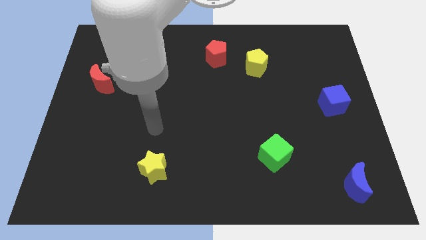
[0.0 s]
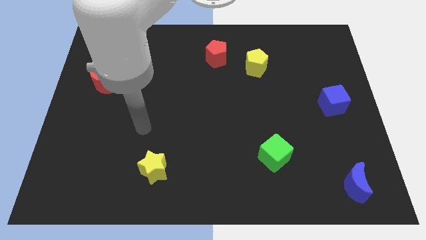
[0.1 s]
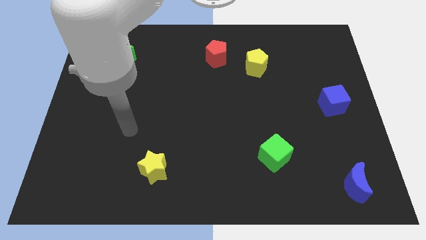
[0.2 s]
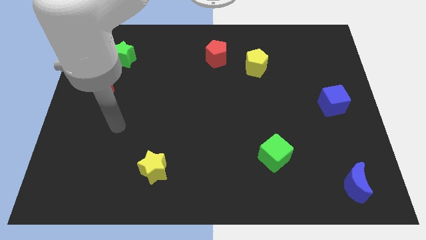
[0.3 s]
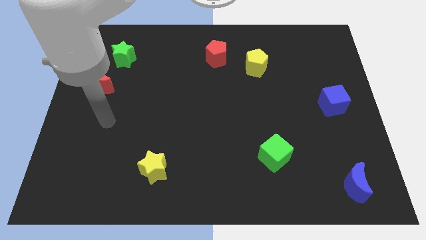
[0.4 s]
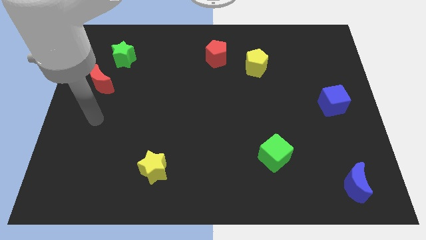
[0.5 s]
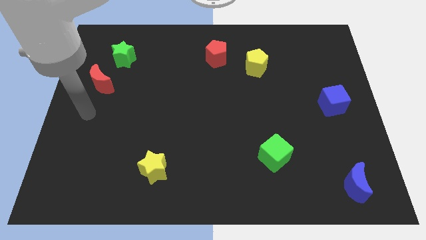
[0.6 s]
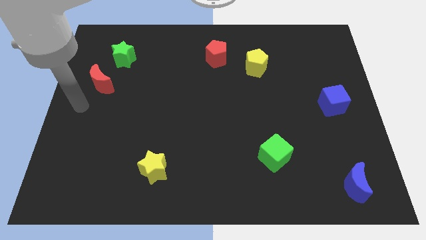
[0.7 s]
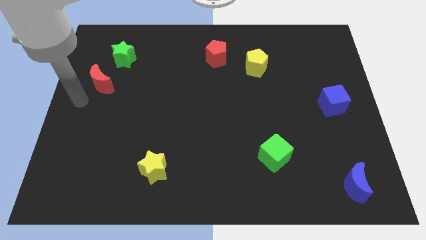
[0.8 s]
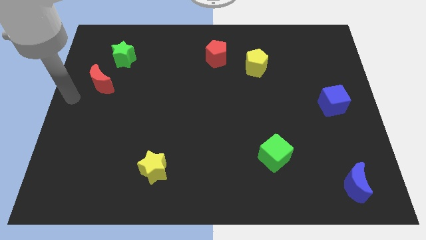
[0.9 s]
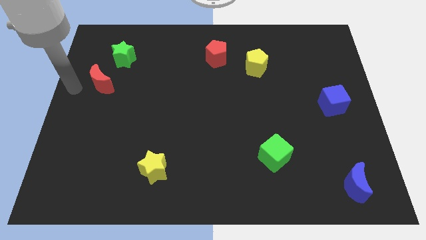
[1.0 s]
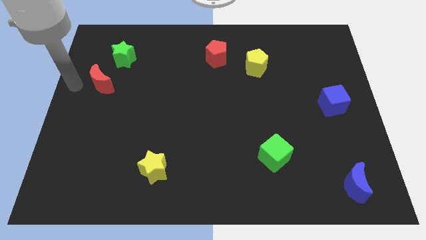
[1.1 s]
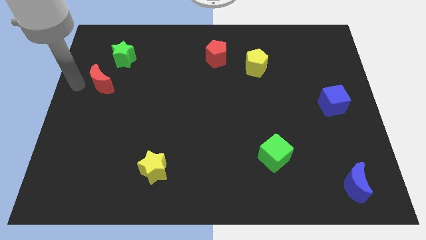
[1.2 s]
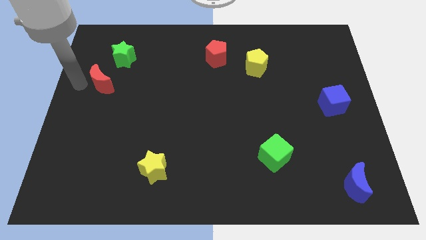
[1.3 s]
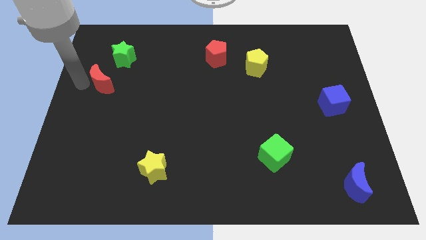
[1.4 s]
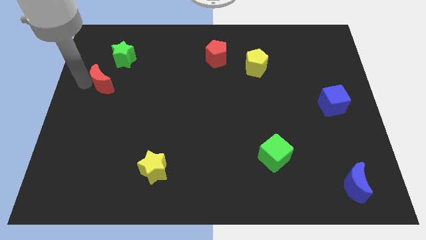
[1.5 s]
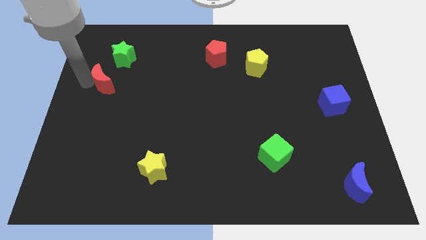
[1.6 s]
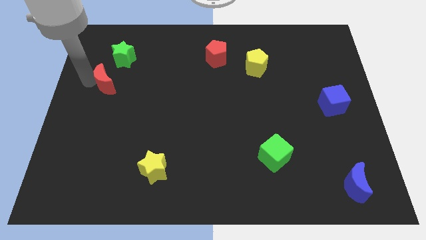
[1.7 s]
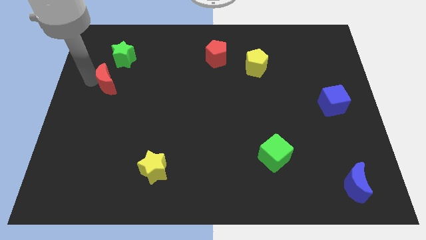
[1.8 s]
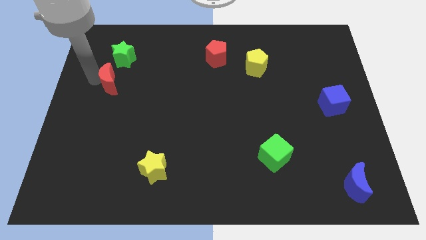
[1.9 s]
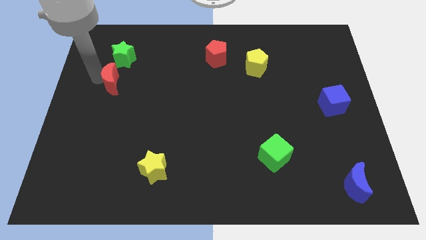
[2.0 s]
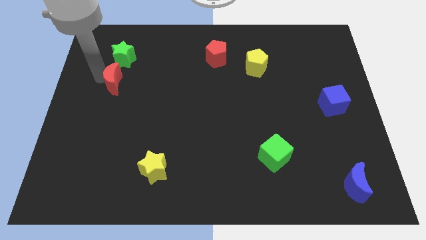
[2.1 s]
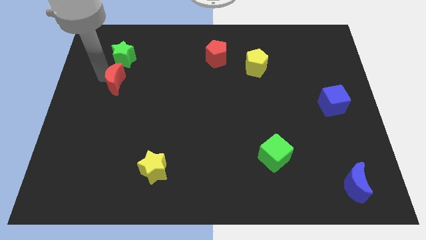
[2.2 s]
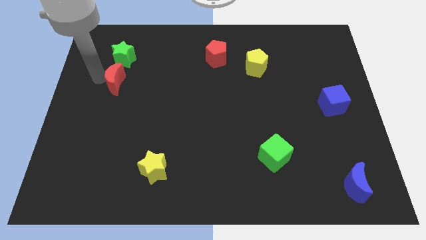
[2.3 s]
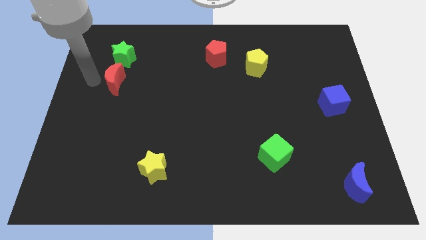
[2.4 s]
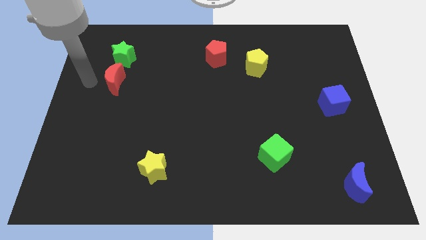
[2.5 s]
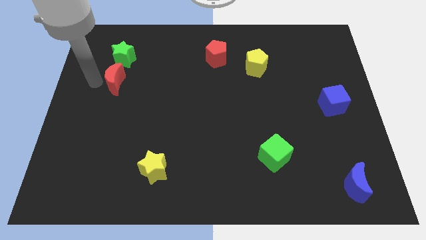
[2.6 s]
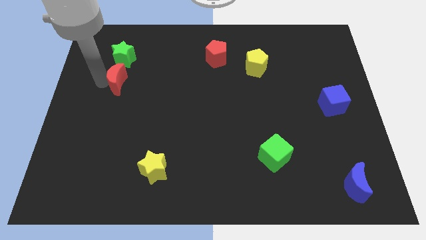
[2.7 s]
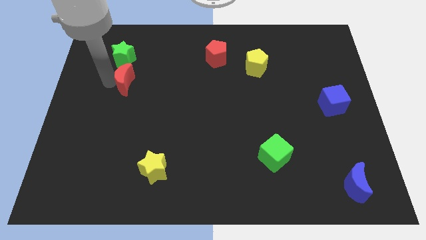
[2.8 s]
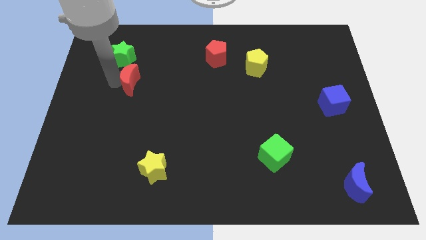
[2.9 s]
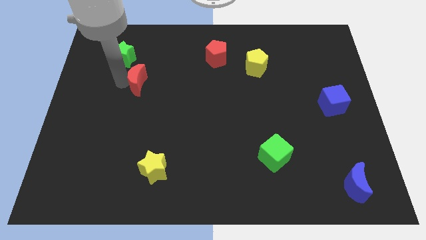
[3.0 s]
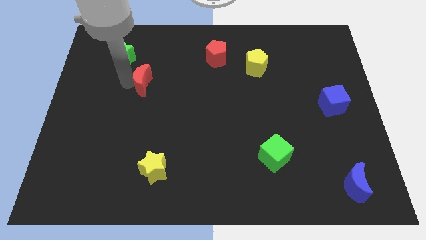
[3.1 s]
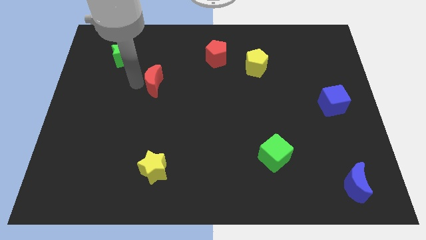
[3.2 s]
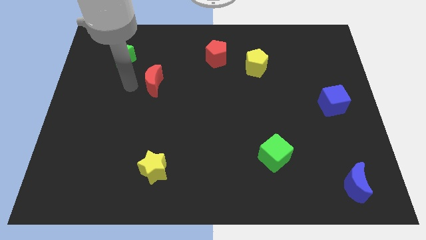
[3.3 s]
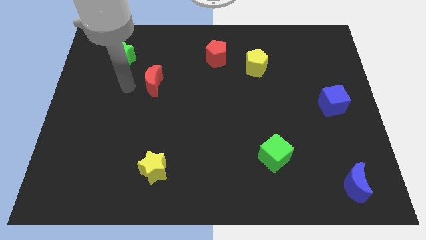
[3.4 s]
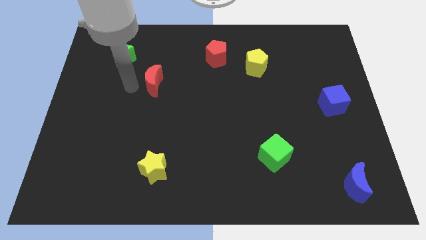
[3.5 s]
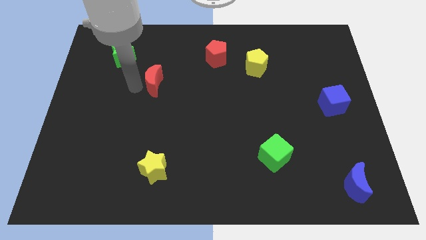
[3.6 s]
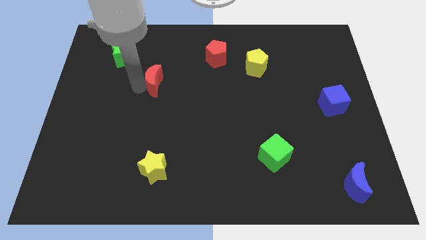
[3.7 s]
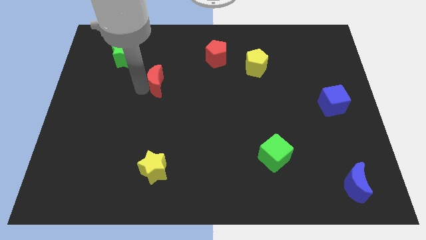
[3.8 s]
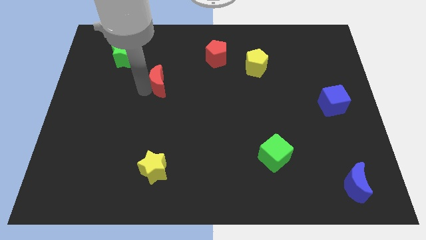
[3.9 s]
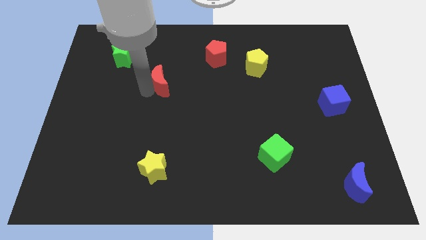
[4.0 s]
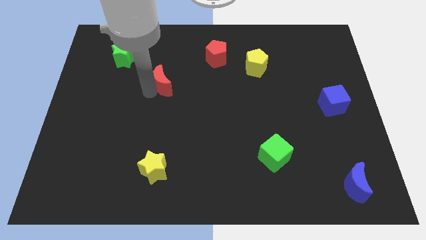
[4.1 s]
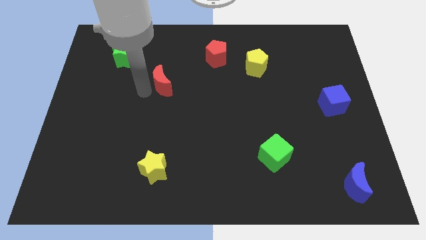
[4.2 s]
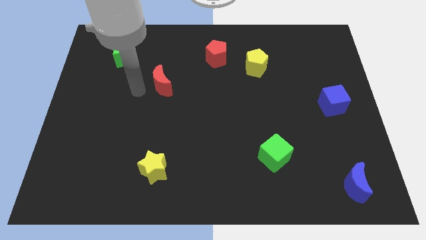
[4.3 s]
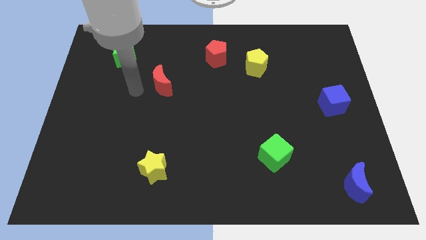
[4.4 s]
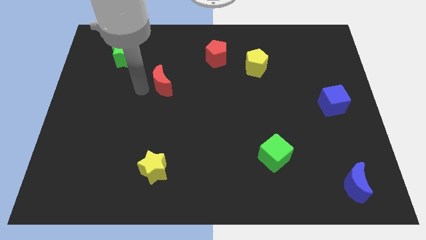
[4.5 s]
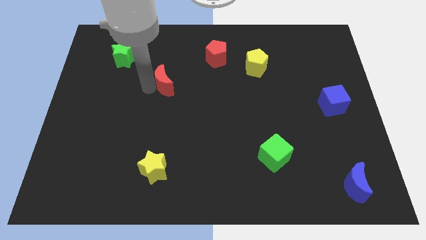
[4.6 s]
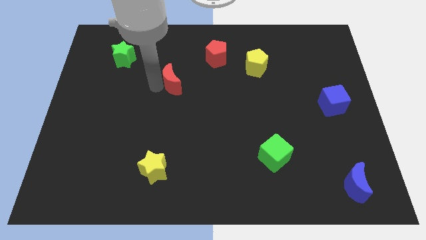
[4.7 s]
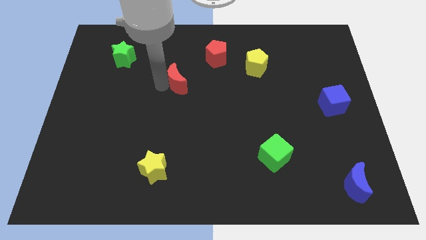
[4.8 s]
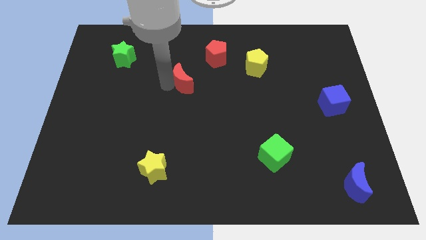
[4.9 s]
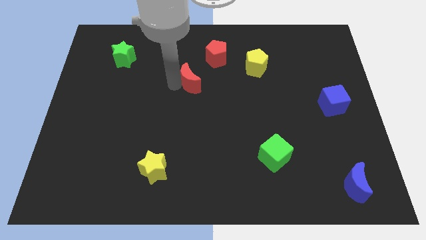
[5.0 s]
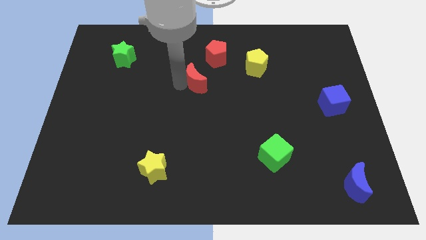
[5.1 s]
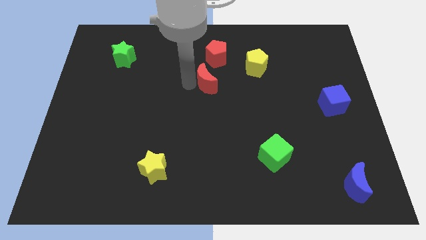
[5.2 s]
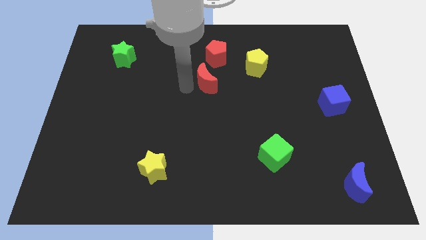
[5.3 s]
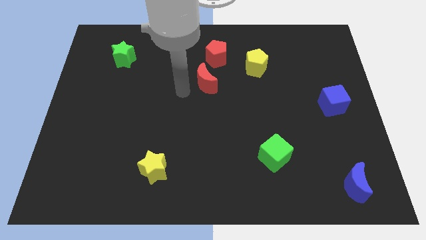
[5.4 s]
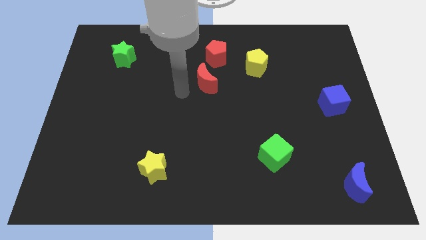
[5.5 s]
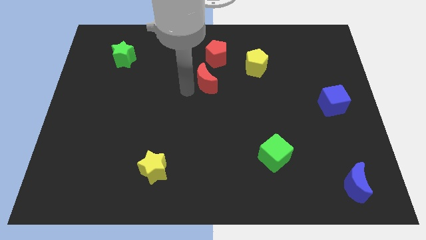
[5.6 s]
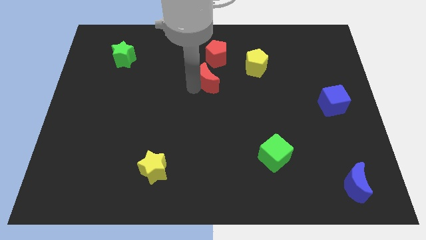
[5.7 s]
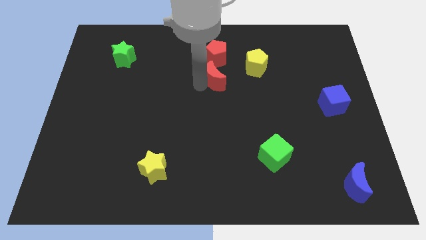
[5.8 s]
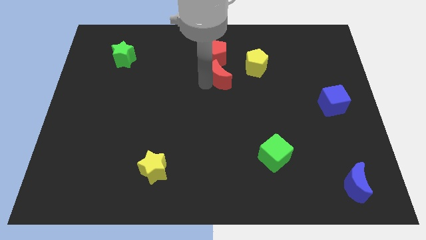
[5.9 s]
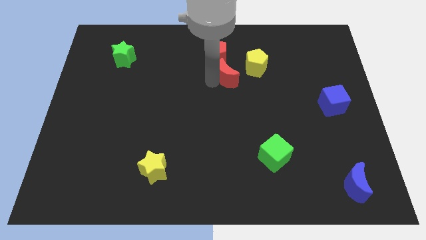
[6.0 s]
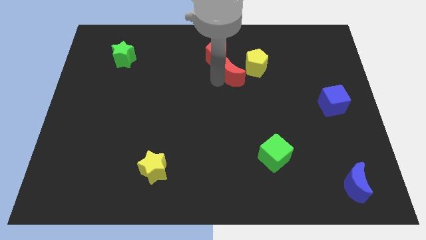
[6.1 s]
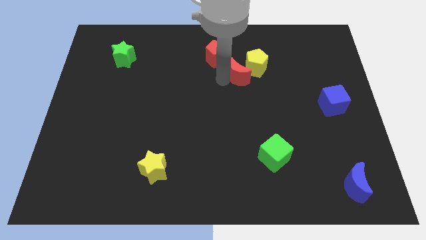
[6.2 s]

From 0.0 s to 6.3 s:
put the red moon to the yellow pentagon

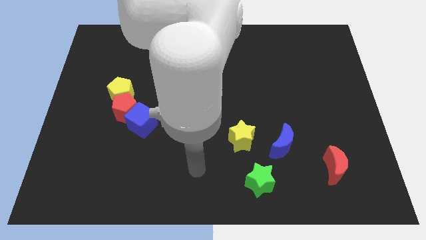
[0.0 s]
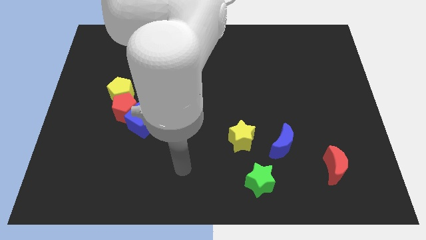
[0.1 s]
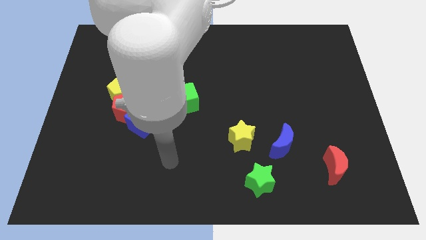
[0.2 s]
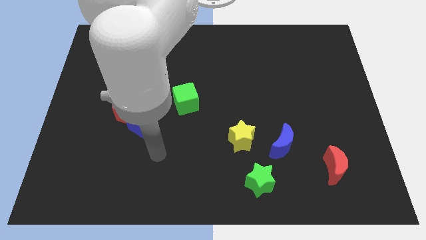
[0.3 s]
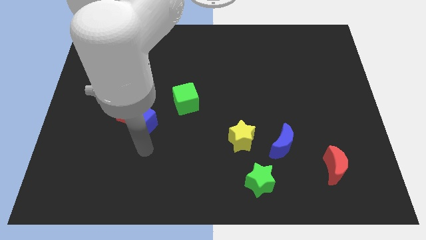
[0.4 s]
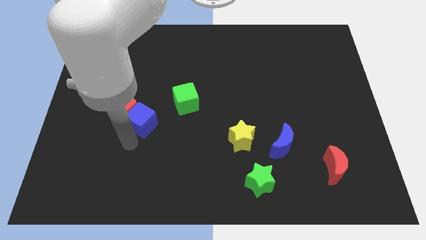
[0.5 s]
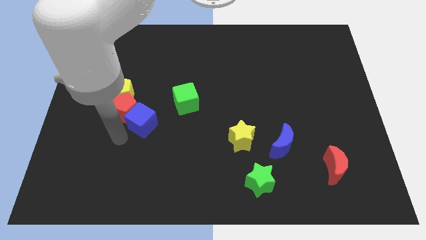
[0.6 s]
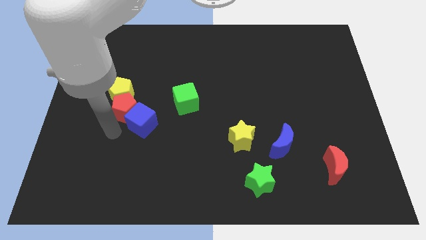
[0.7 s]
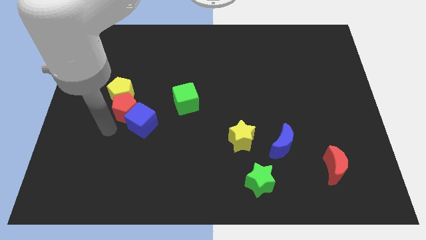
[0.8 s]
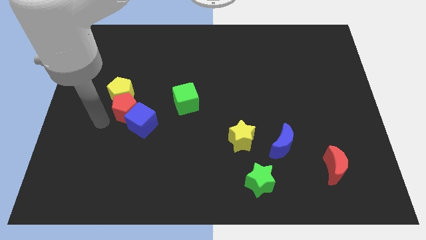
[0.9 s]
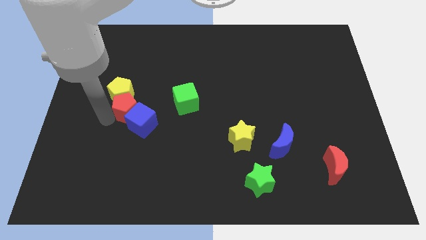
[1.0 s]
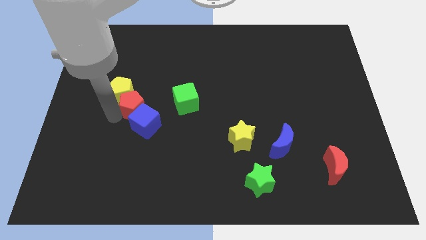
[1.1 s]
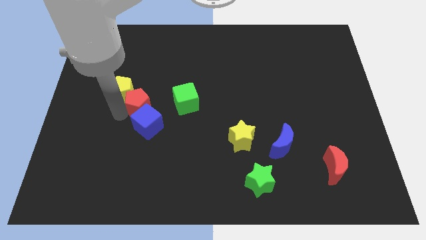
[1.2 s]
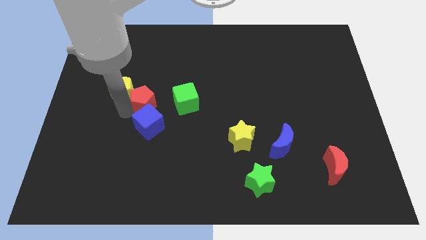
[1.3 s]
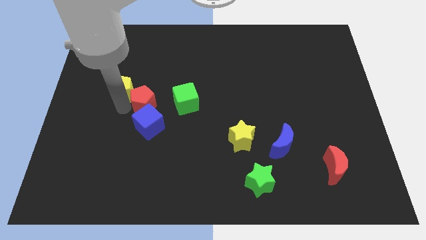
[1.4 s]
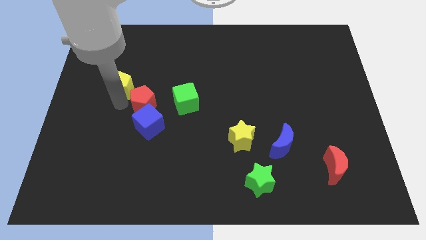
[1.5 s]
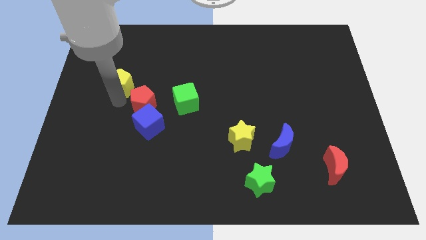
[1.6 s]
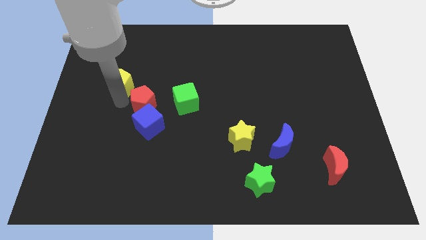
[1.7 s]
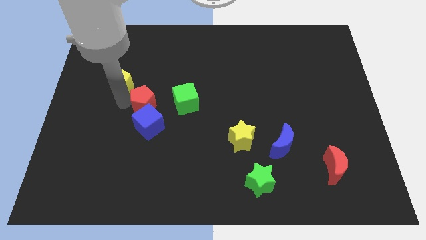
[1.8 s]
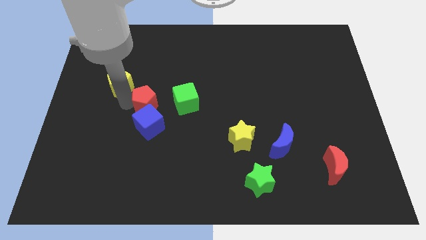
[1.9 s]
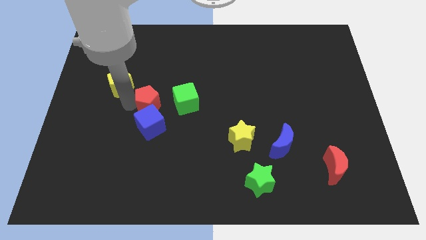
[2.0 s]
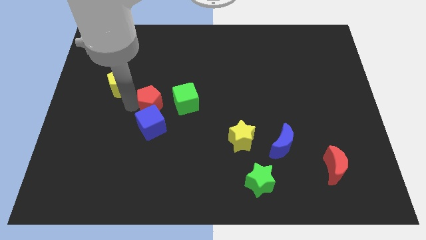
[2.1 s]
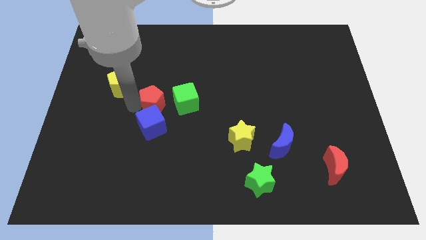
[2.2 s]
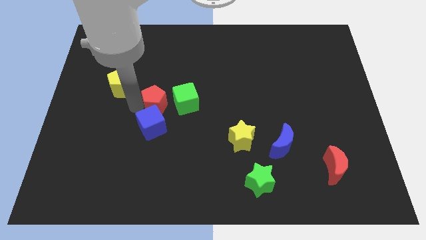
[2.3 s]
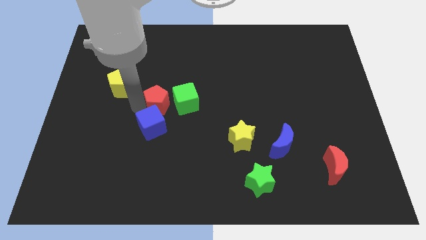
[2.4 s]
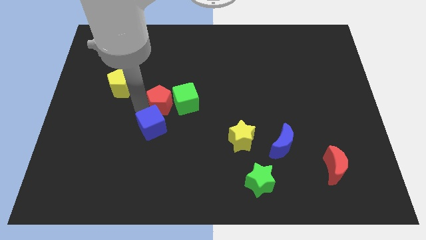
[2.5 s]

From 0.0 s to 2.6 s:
move the red pentagon to the green cube
